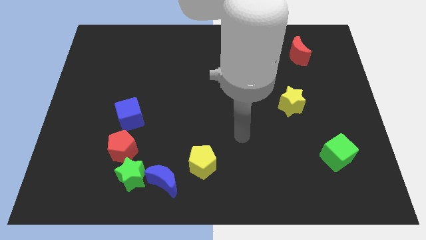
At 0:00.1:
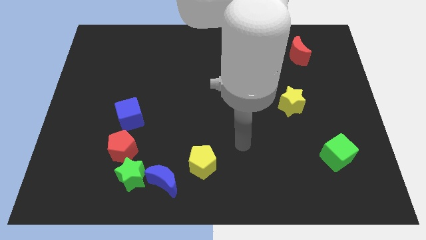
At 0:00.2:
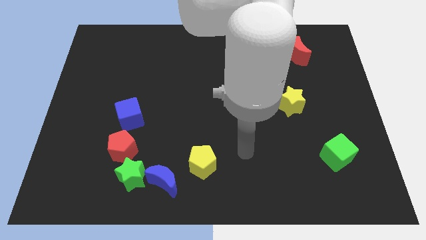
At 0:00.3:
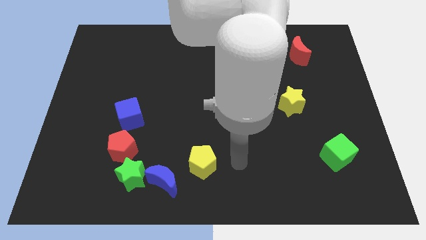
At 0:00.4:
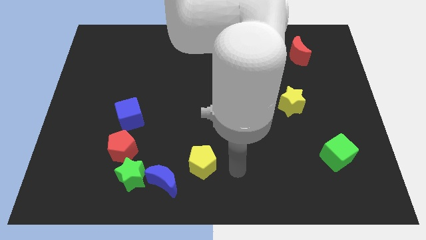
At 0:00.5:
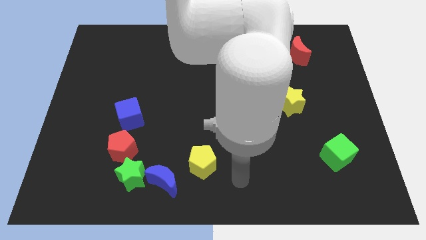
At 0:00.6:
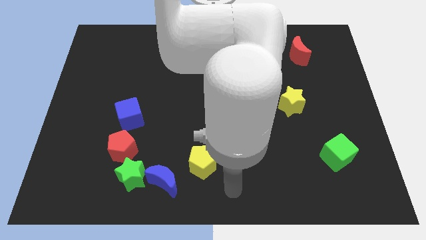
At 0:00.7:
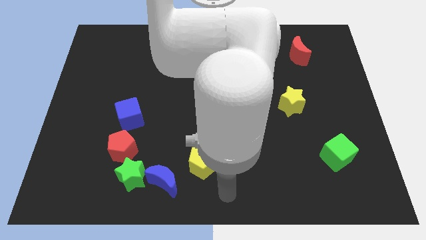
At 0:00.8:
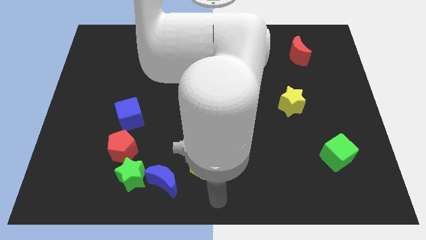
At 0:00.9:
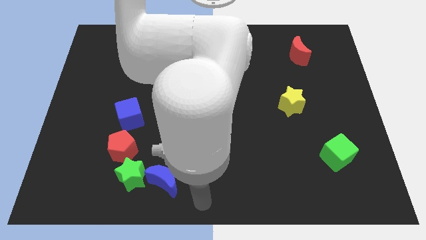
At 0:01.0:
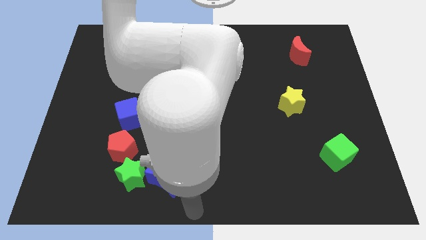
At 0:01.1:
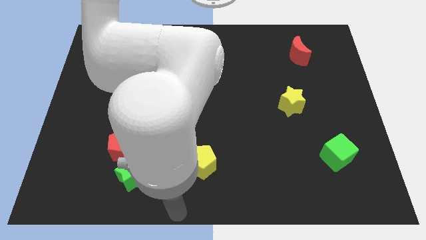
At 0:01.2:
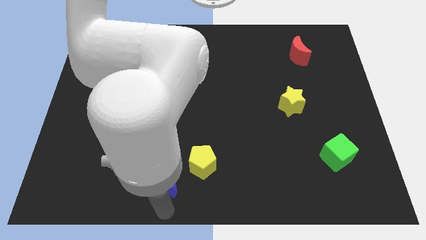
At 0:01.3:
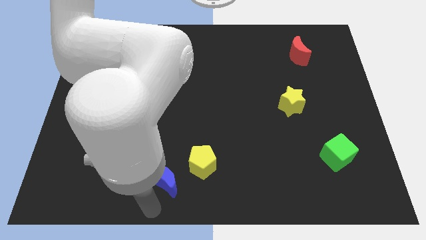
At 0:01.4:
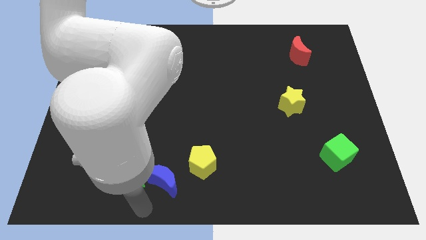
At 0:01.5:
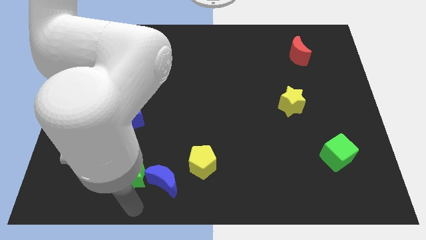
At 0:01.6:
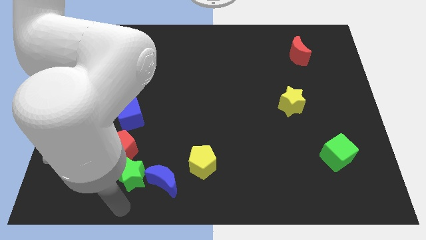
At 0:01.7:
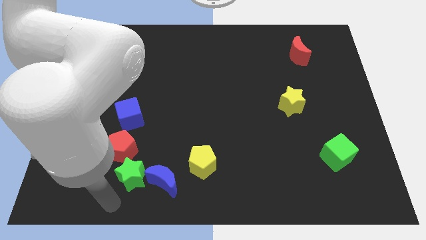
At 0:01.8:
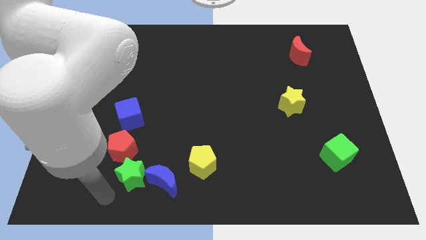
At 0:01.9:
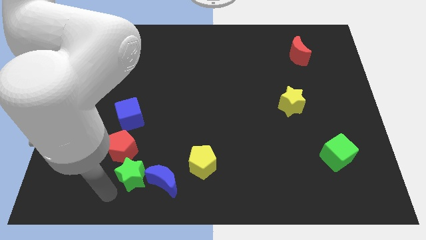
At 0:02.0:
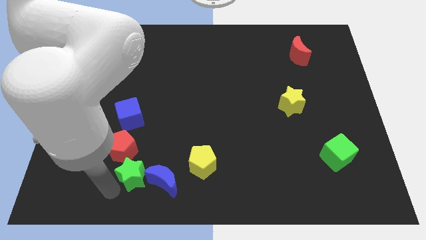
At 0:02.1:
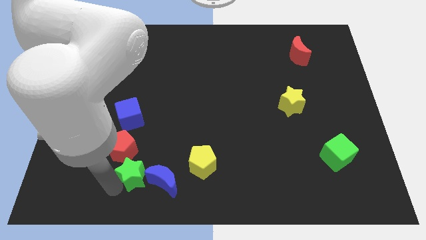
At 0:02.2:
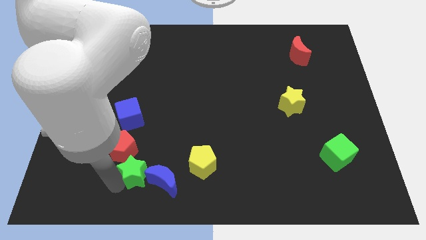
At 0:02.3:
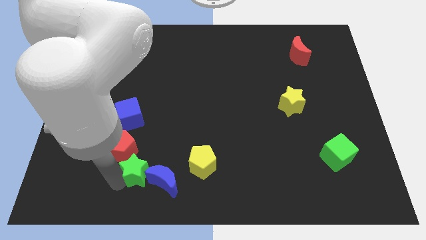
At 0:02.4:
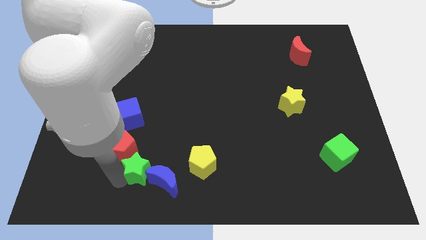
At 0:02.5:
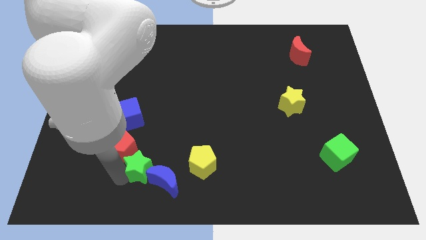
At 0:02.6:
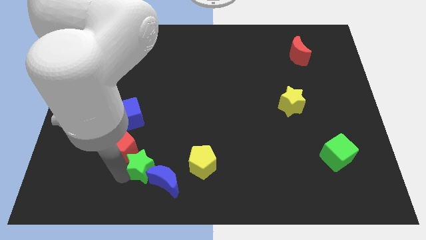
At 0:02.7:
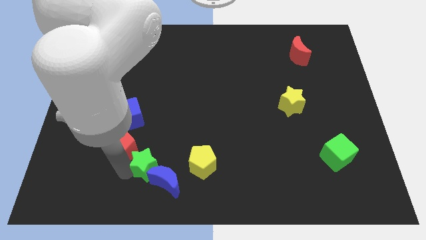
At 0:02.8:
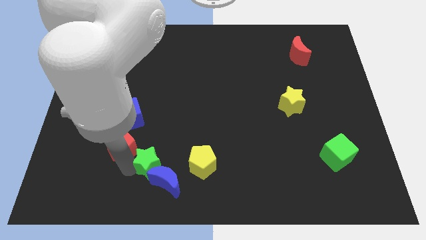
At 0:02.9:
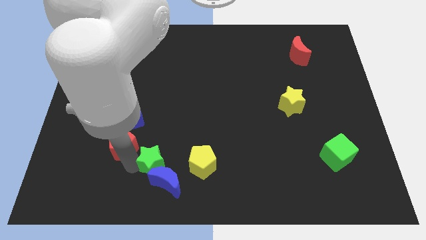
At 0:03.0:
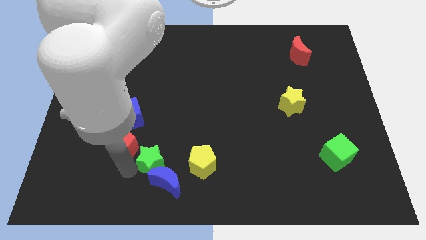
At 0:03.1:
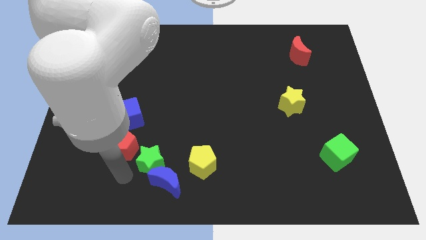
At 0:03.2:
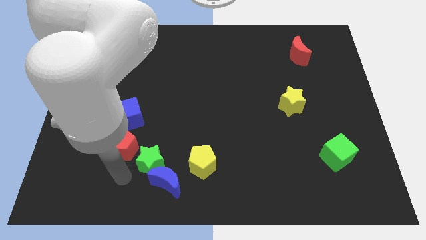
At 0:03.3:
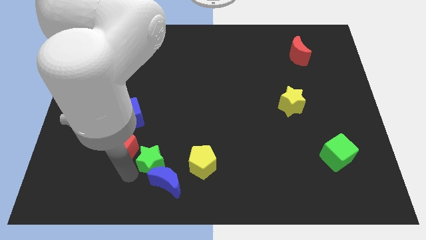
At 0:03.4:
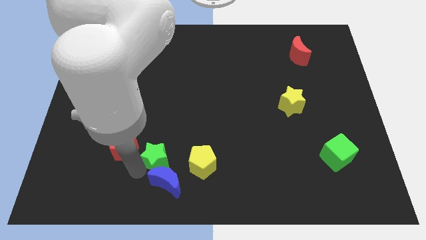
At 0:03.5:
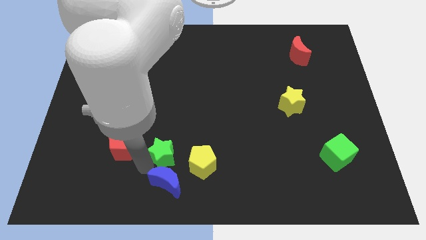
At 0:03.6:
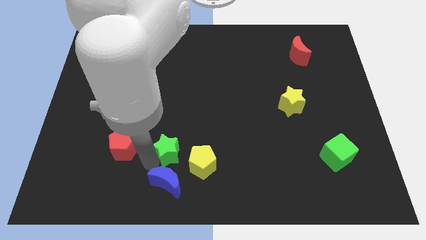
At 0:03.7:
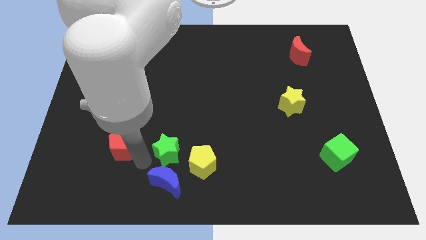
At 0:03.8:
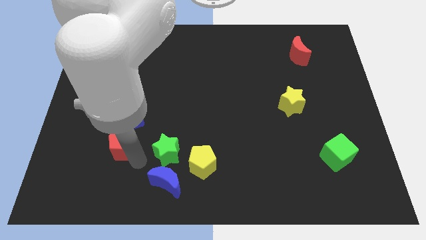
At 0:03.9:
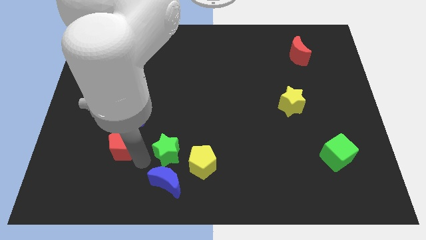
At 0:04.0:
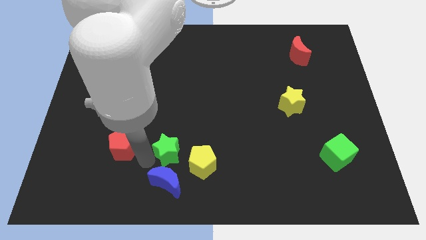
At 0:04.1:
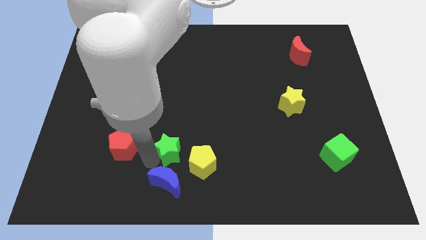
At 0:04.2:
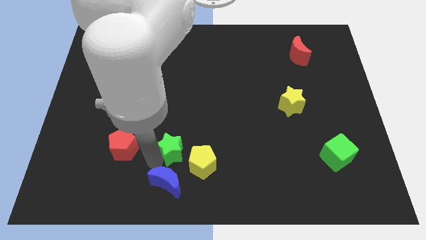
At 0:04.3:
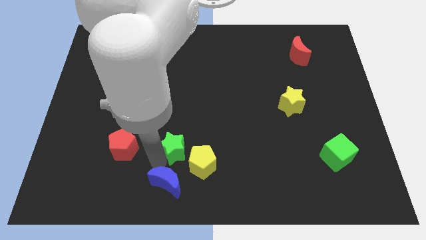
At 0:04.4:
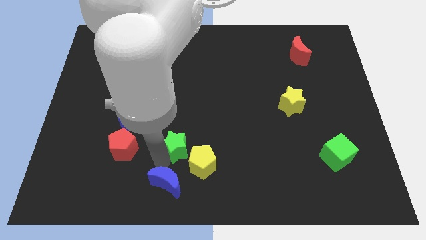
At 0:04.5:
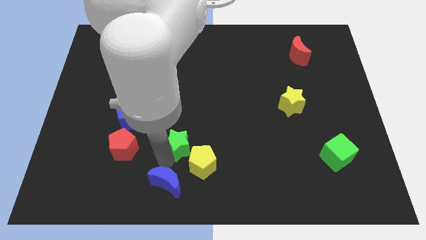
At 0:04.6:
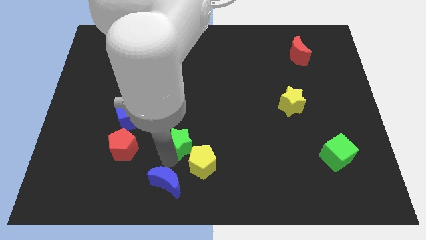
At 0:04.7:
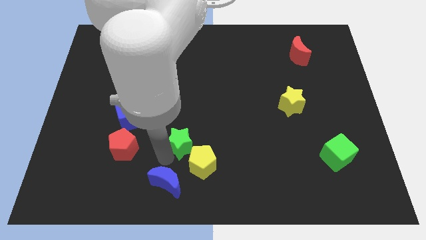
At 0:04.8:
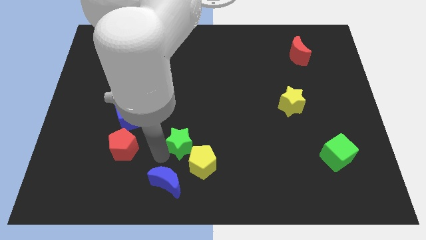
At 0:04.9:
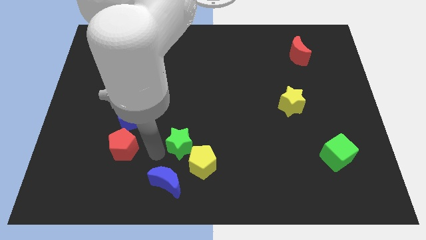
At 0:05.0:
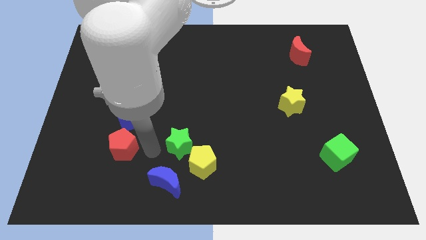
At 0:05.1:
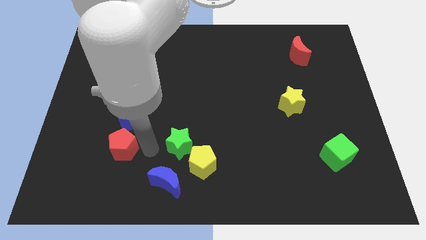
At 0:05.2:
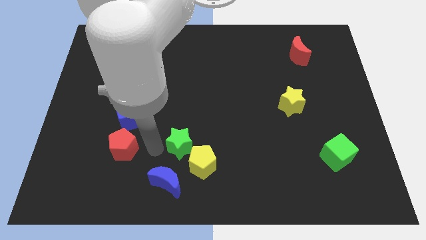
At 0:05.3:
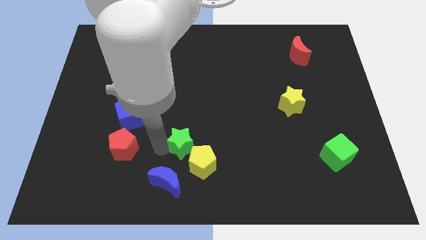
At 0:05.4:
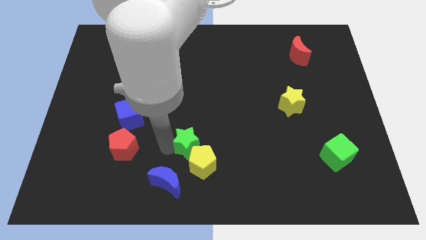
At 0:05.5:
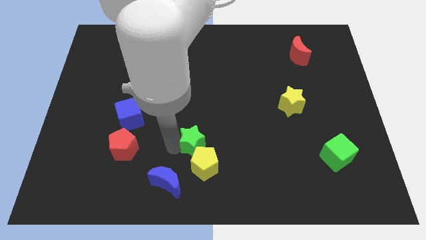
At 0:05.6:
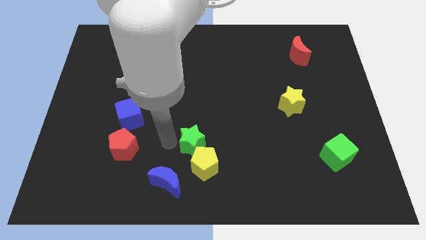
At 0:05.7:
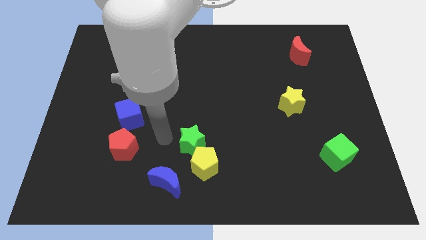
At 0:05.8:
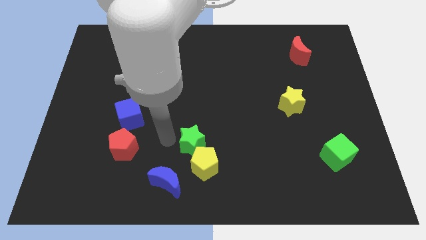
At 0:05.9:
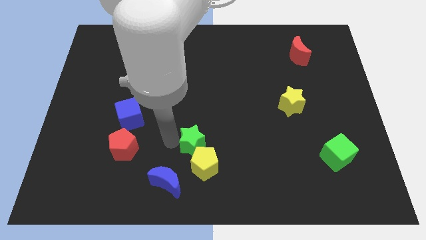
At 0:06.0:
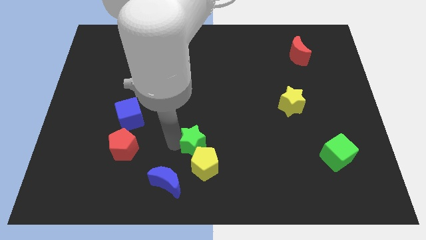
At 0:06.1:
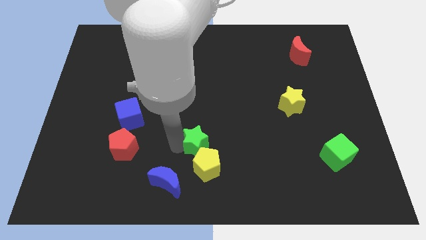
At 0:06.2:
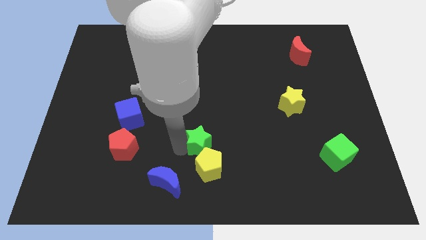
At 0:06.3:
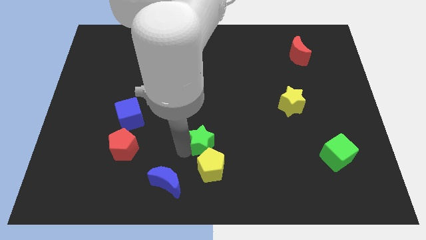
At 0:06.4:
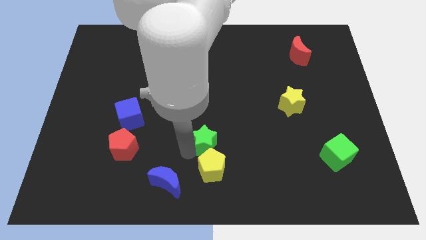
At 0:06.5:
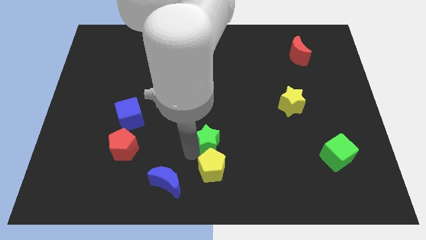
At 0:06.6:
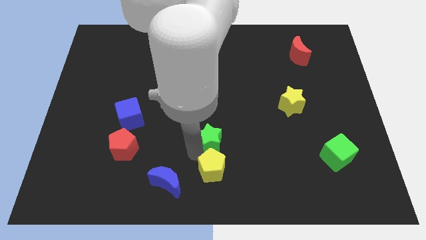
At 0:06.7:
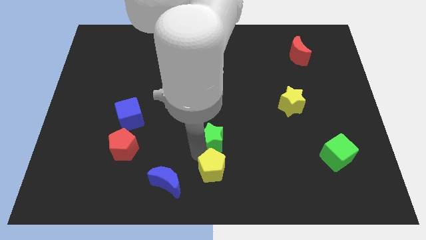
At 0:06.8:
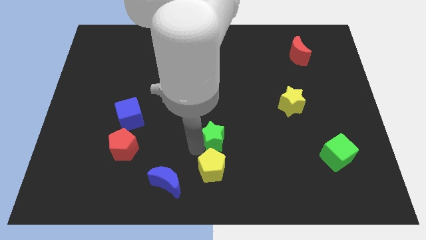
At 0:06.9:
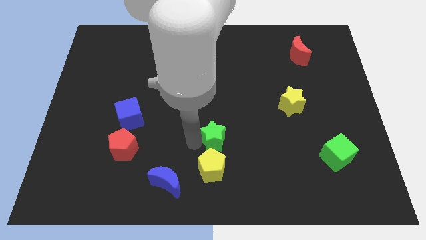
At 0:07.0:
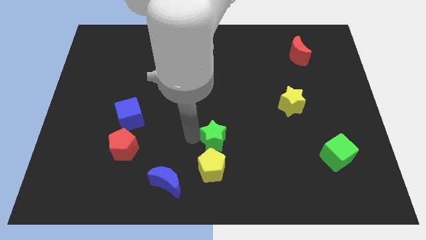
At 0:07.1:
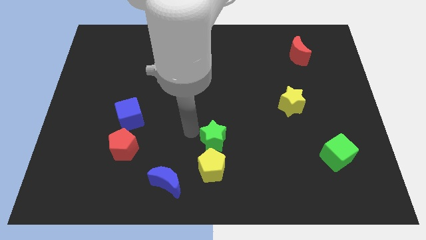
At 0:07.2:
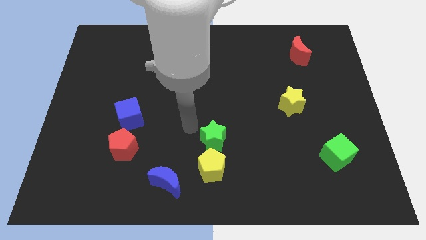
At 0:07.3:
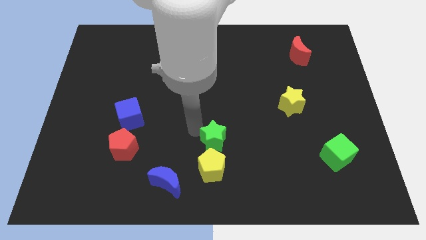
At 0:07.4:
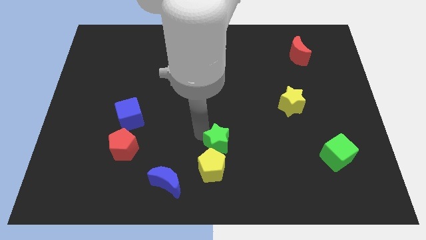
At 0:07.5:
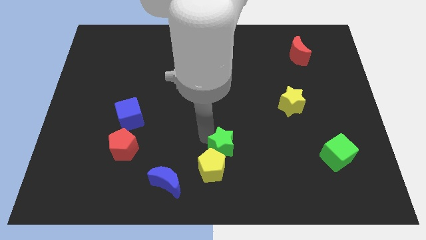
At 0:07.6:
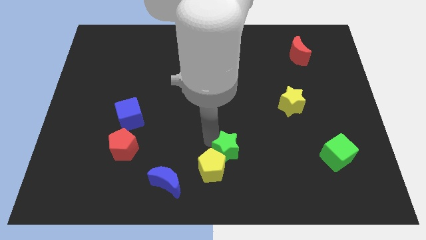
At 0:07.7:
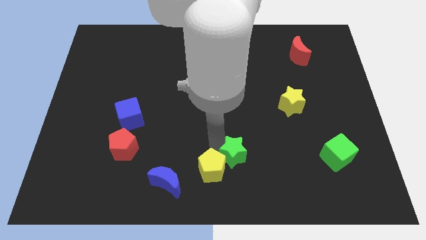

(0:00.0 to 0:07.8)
push the green star to the right

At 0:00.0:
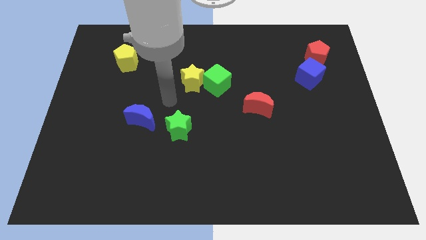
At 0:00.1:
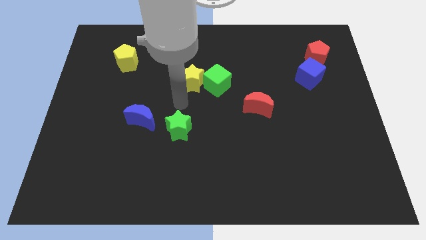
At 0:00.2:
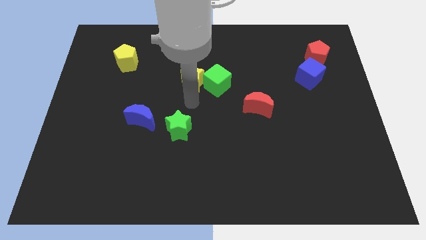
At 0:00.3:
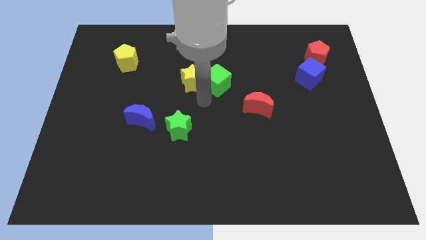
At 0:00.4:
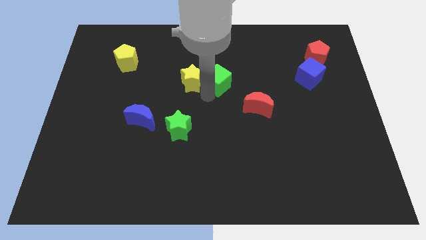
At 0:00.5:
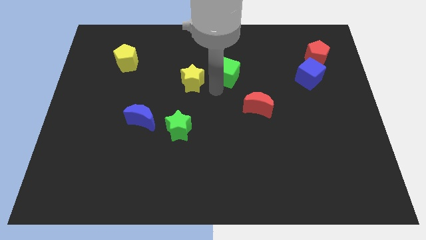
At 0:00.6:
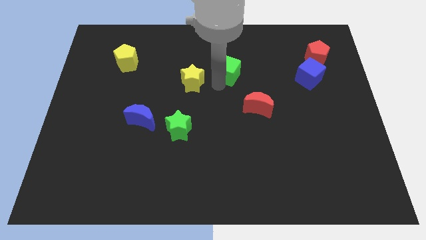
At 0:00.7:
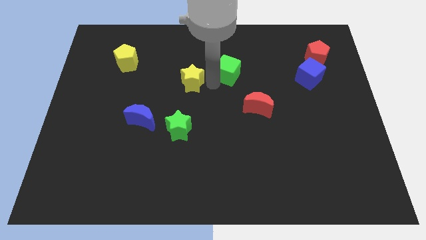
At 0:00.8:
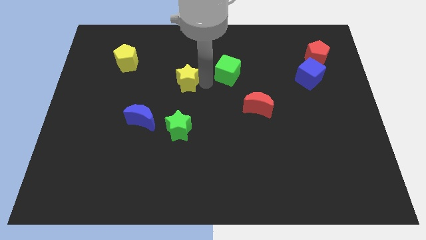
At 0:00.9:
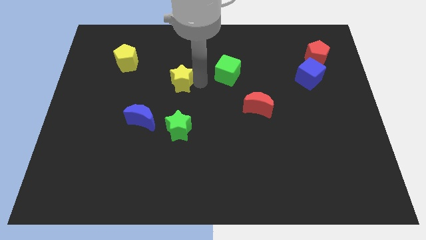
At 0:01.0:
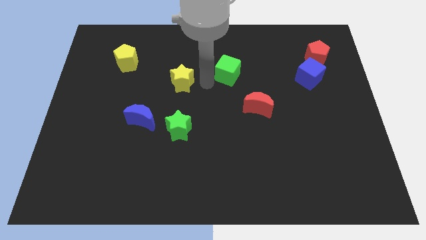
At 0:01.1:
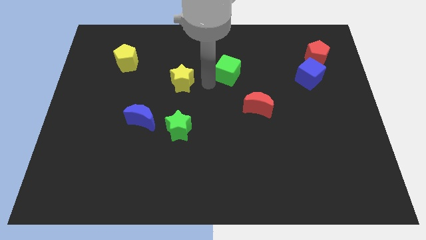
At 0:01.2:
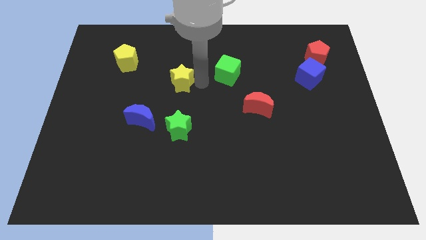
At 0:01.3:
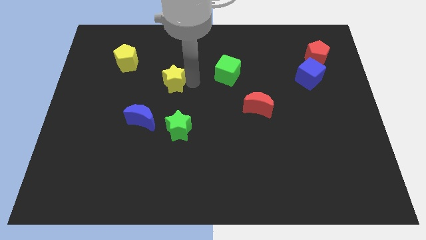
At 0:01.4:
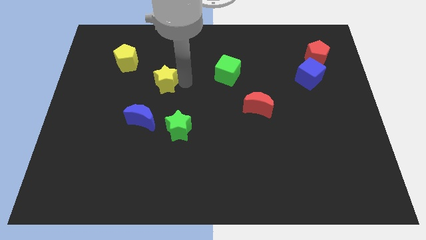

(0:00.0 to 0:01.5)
move the yellow star to the left a little
